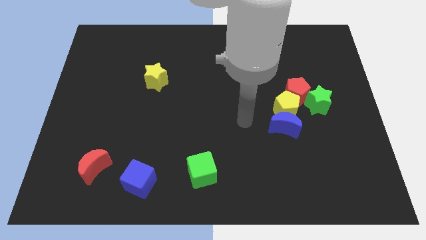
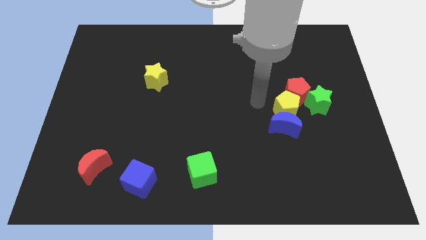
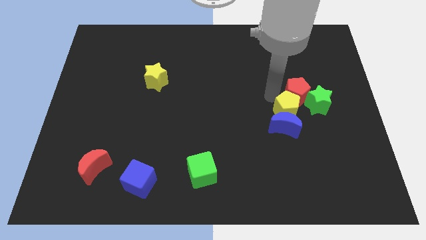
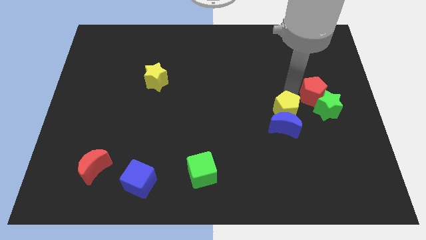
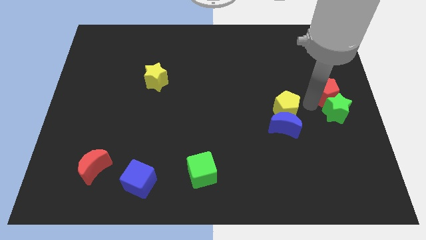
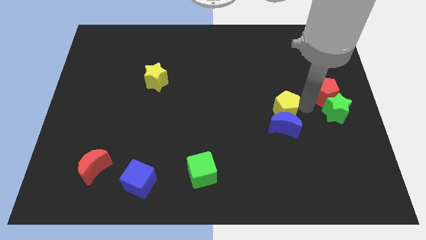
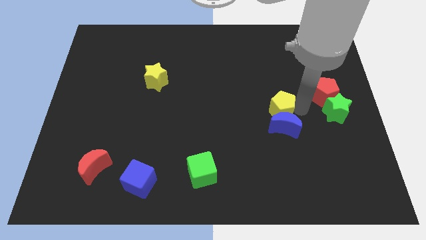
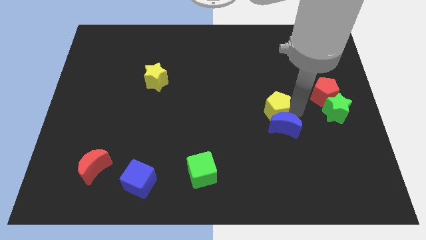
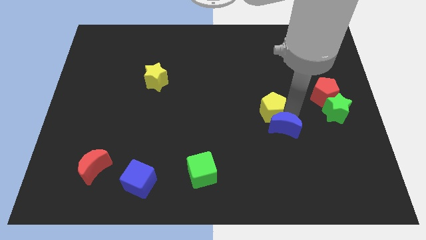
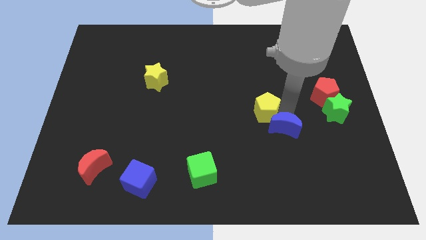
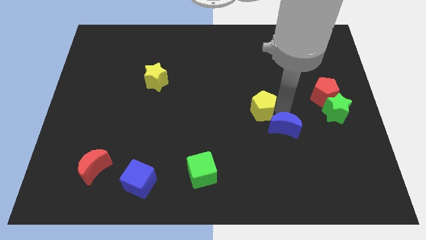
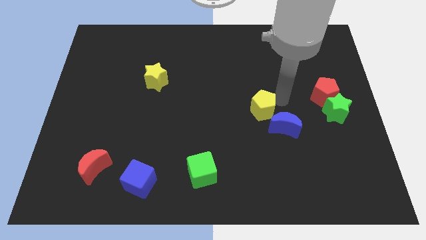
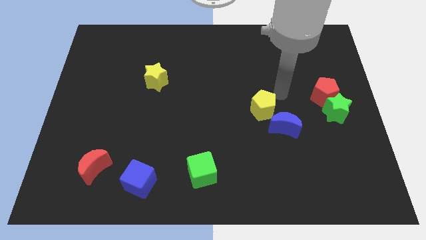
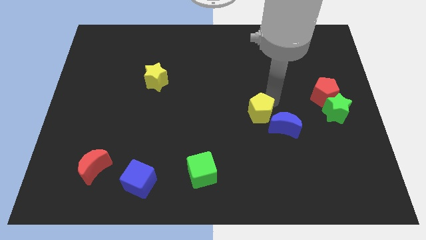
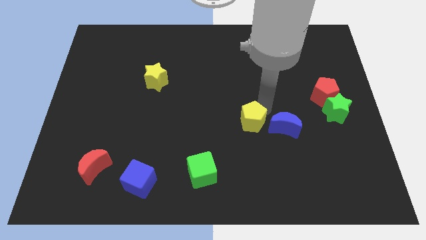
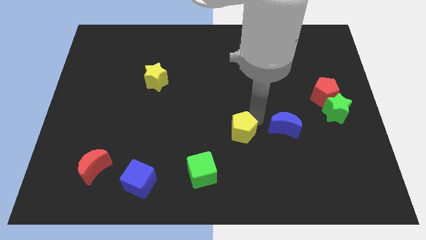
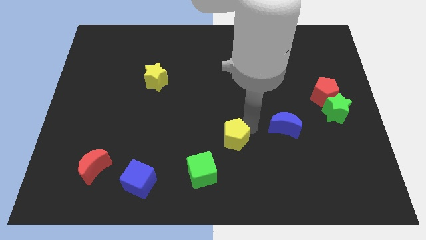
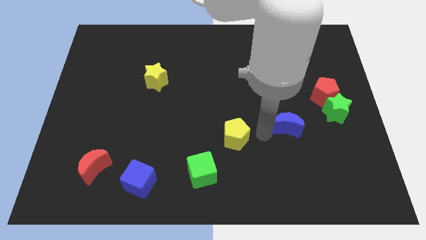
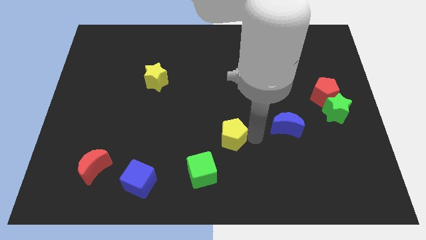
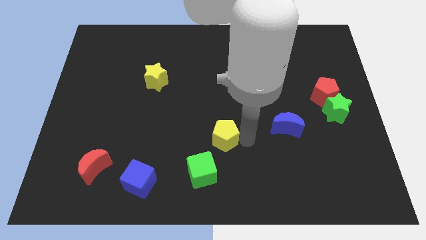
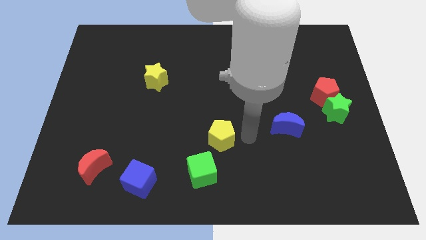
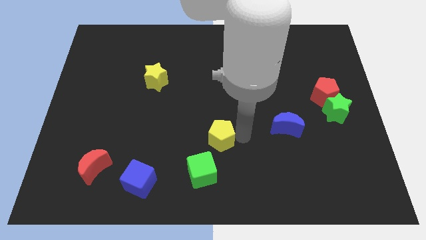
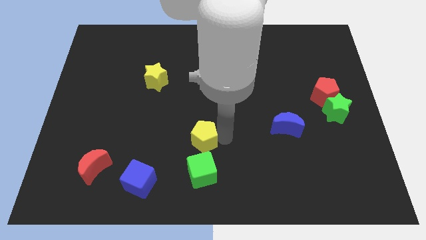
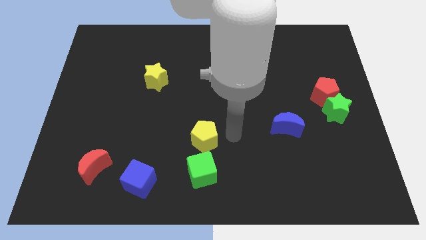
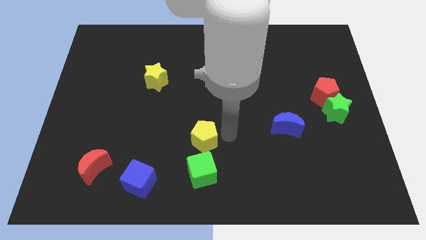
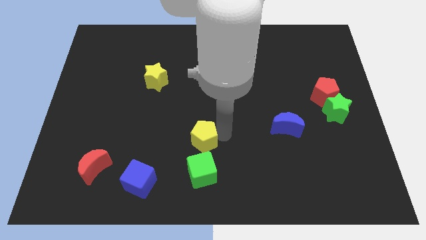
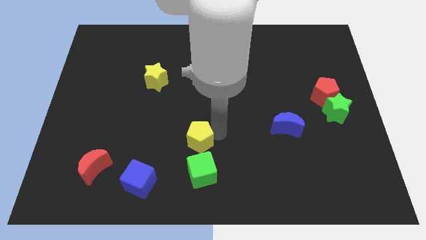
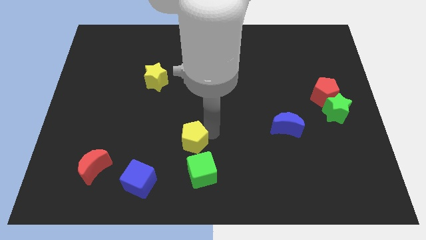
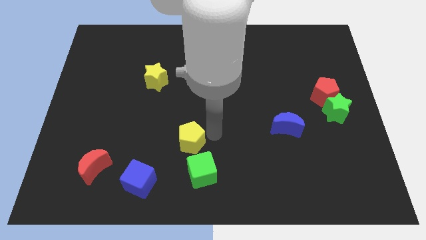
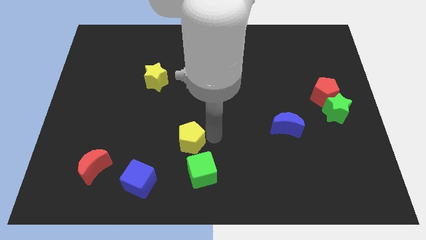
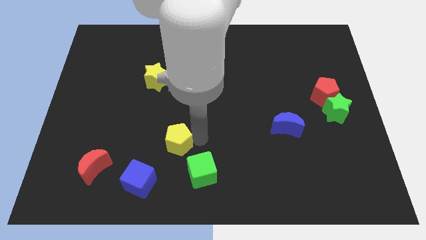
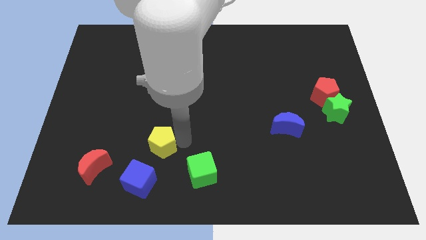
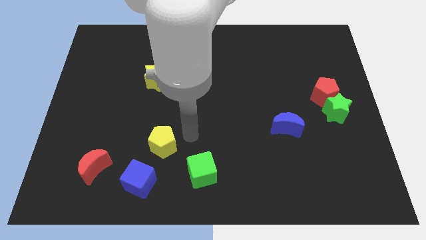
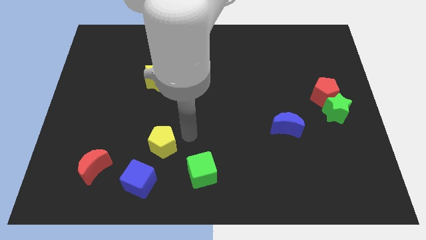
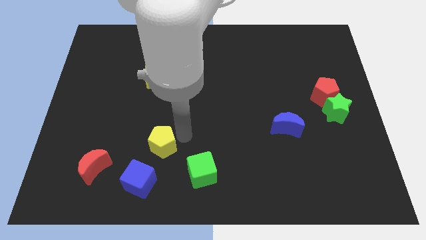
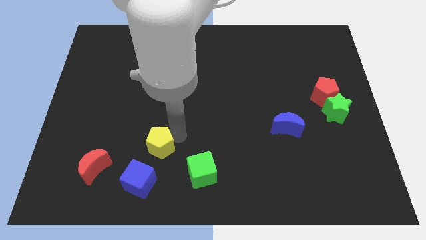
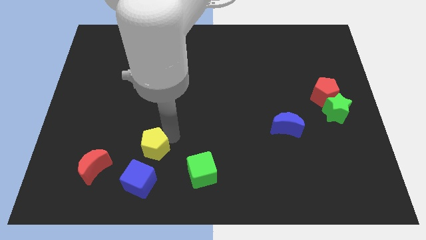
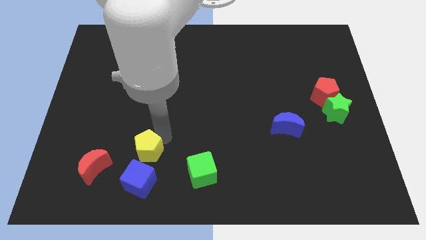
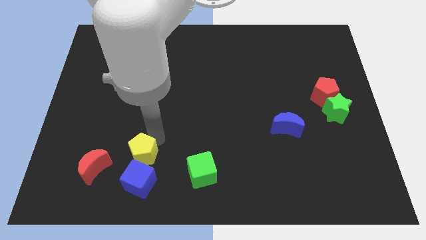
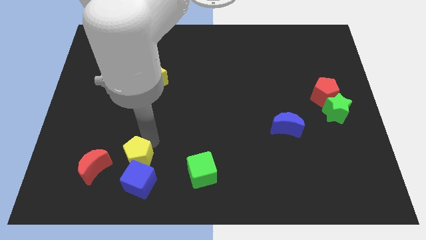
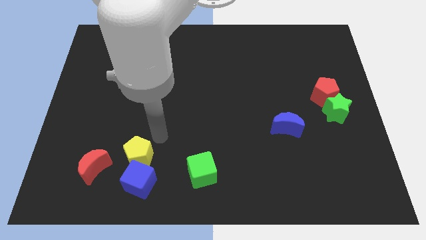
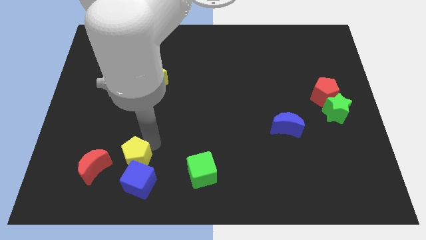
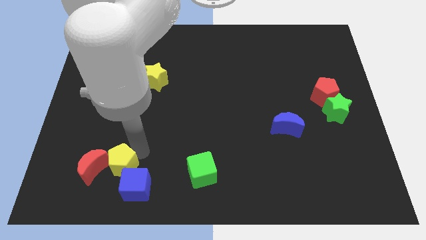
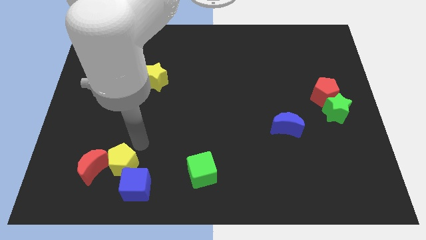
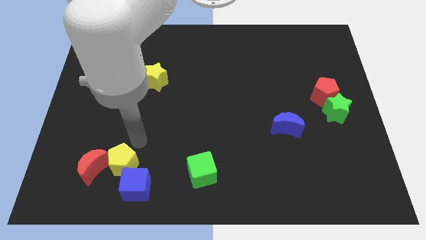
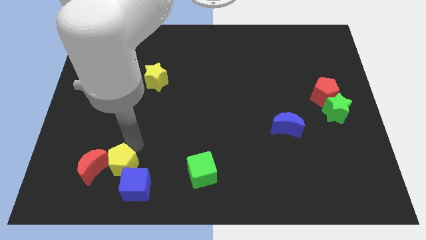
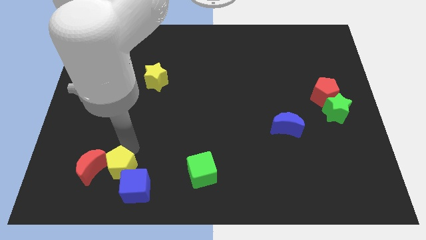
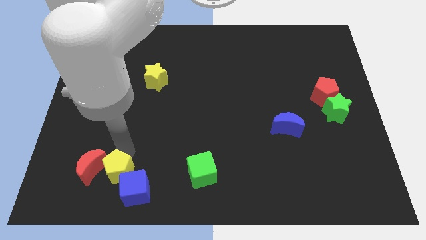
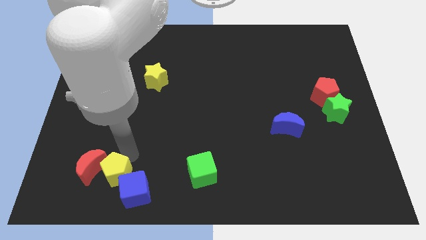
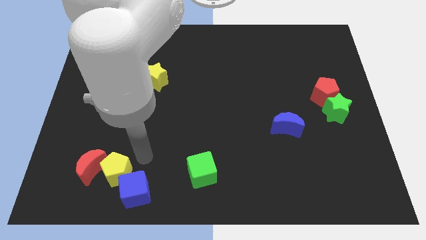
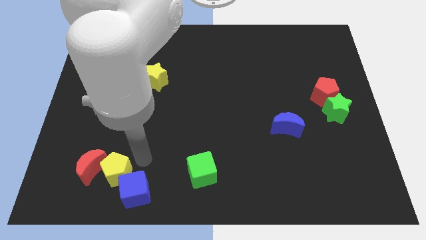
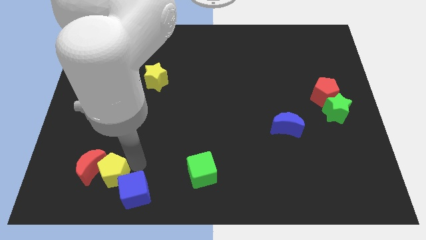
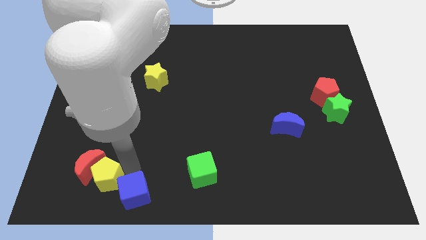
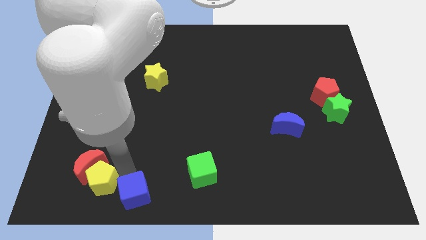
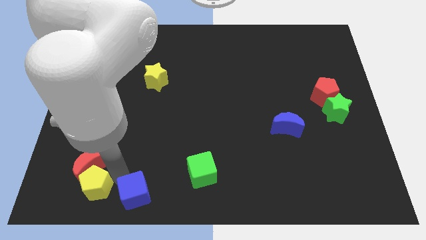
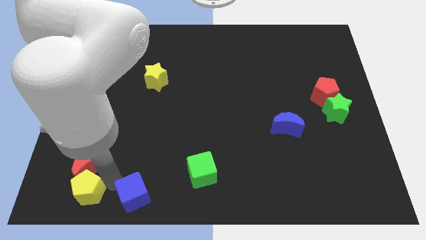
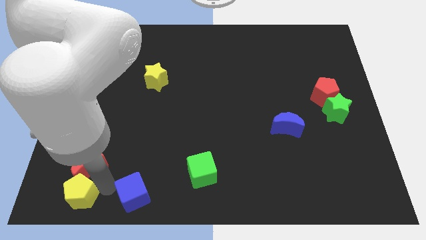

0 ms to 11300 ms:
push the yellow pentagon to the bottom left

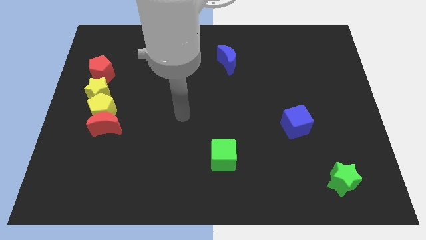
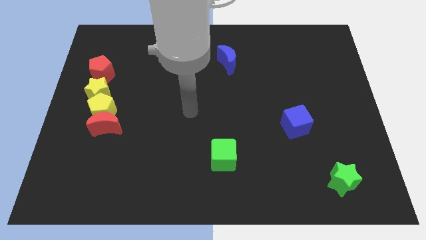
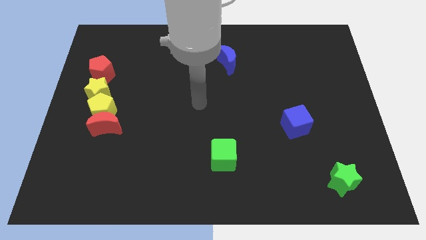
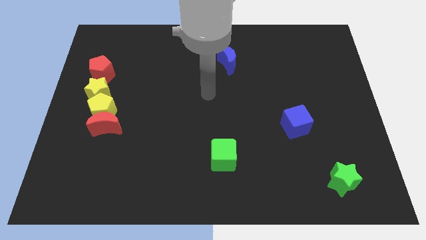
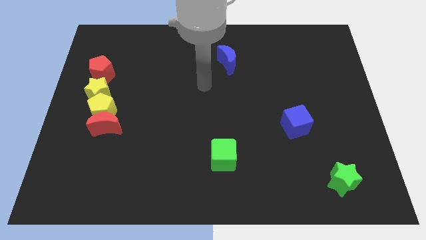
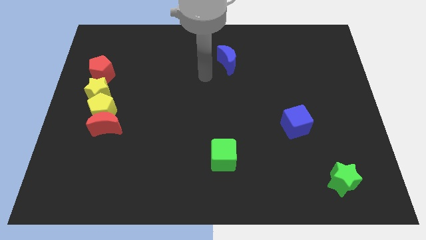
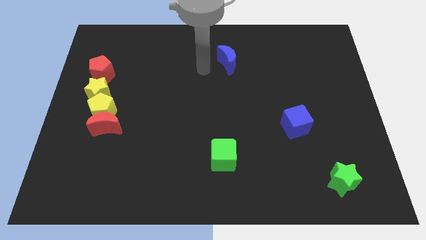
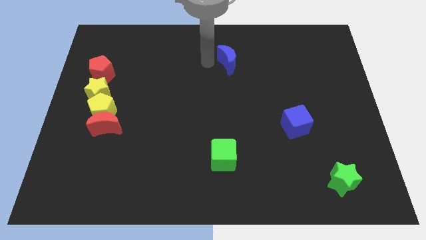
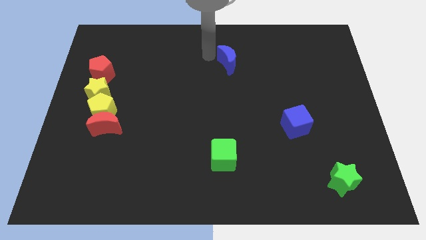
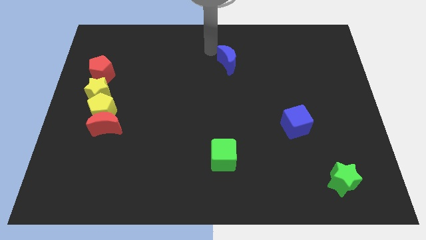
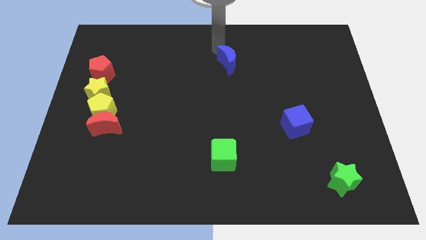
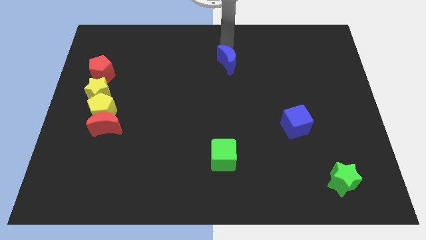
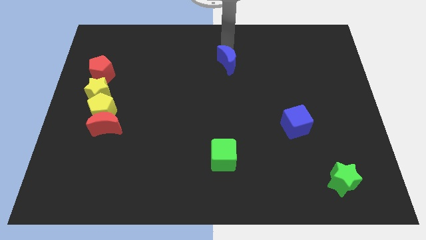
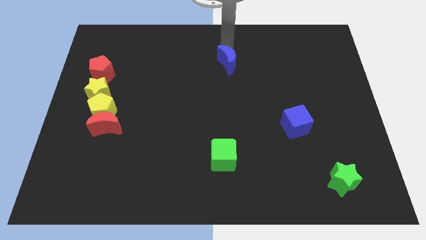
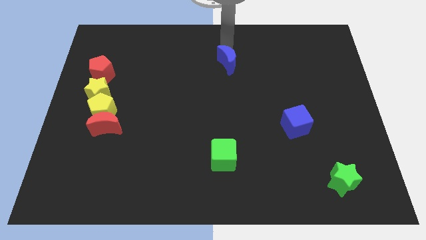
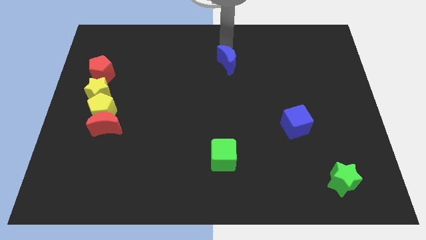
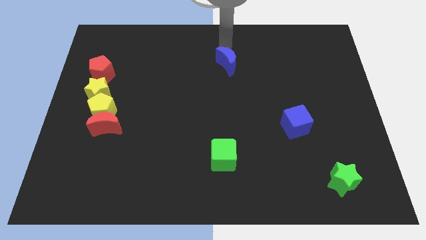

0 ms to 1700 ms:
put the blue moon to the center of the board
